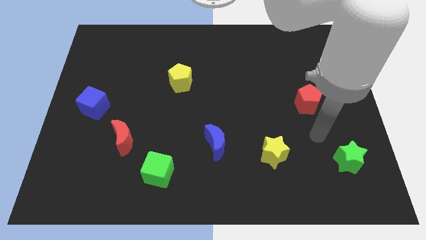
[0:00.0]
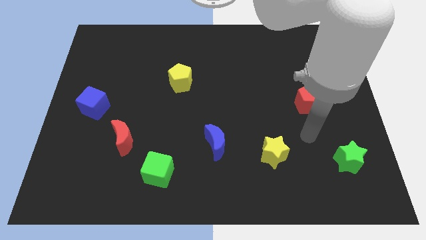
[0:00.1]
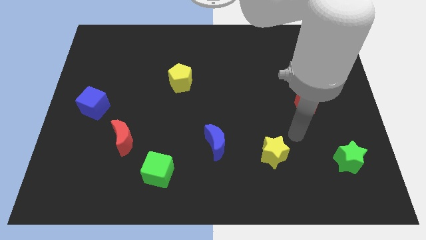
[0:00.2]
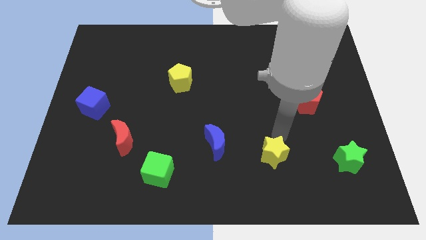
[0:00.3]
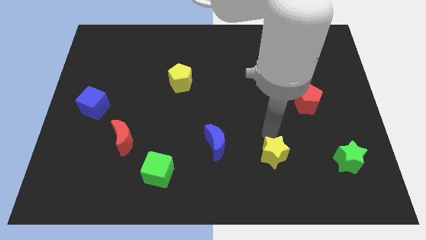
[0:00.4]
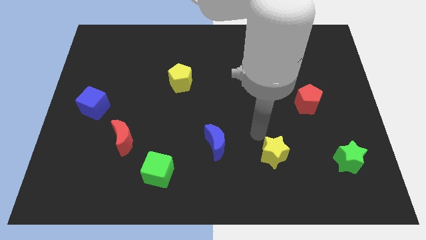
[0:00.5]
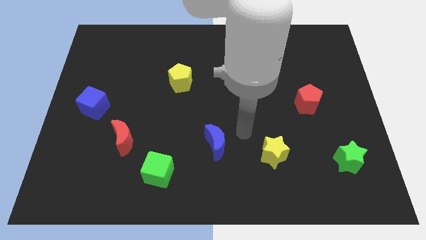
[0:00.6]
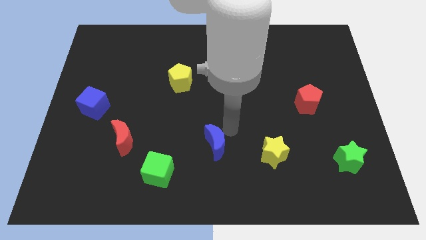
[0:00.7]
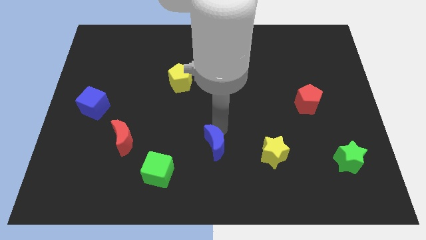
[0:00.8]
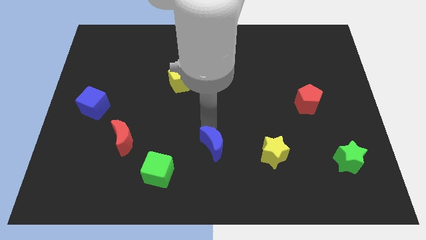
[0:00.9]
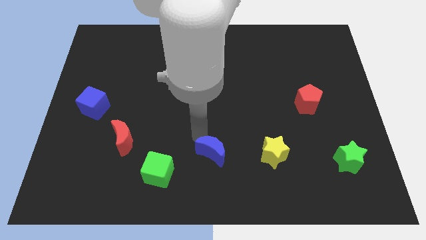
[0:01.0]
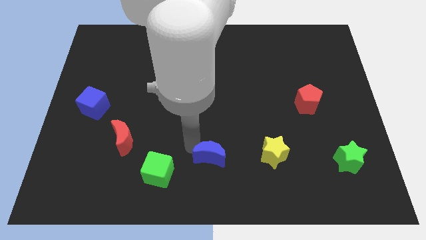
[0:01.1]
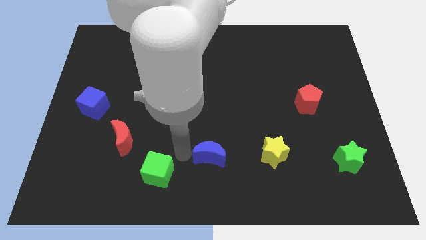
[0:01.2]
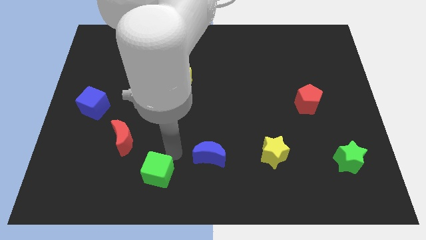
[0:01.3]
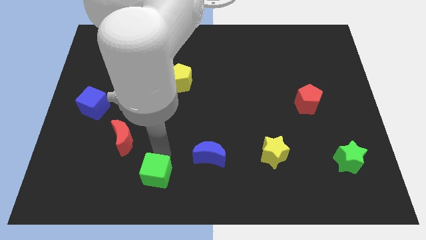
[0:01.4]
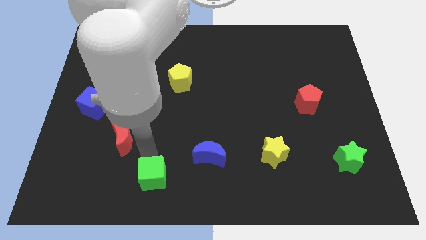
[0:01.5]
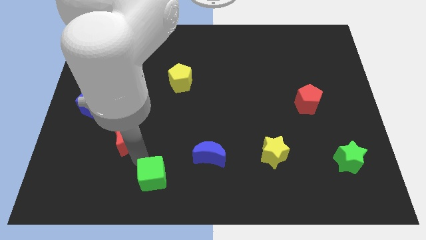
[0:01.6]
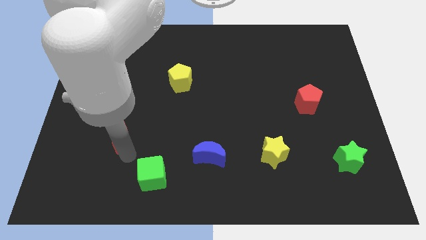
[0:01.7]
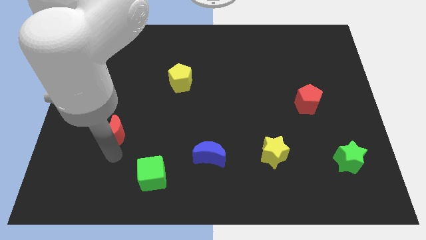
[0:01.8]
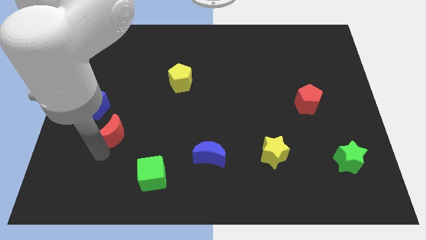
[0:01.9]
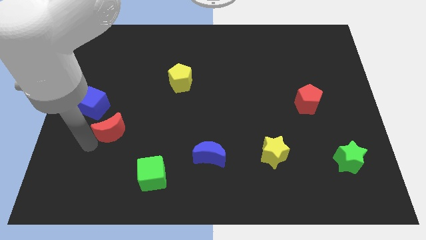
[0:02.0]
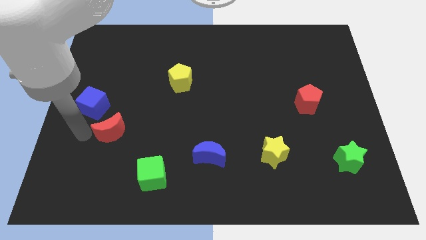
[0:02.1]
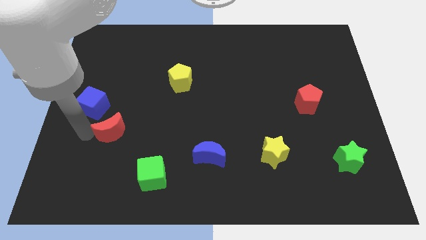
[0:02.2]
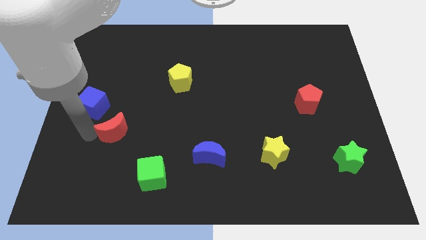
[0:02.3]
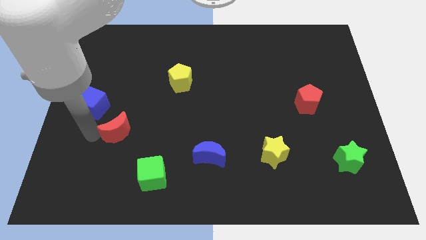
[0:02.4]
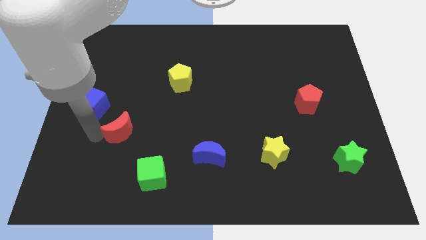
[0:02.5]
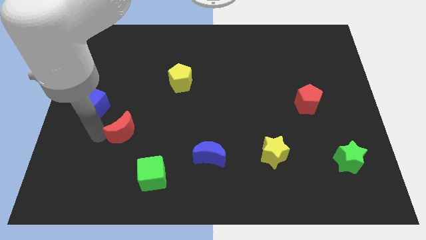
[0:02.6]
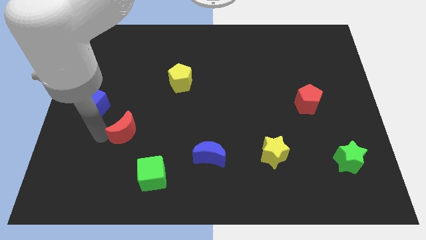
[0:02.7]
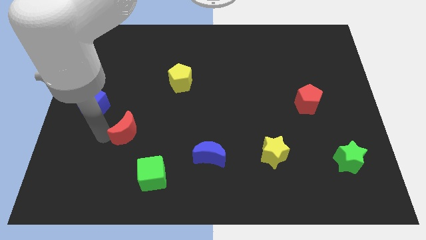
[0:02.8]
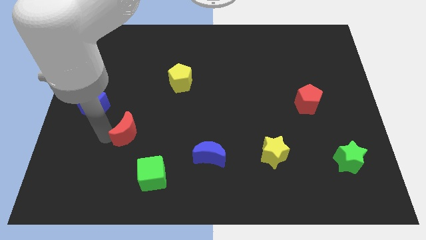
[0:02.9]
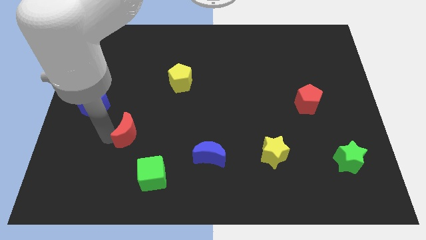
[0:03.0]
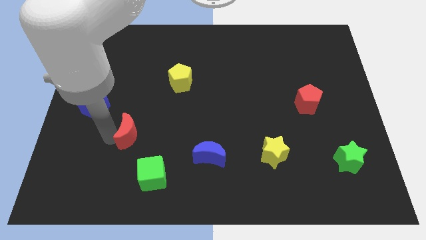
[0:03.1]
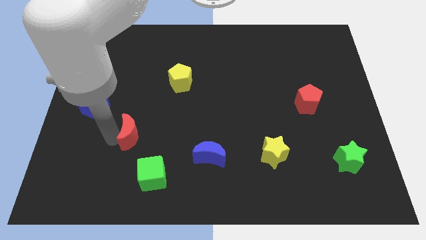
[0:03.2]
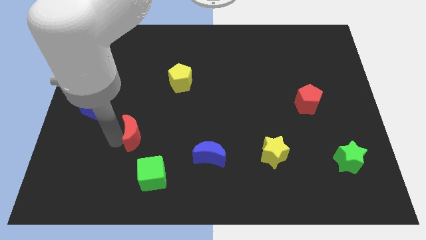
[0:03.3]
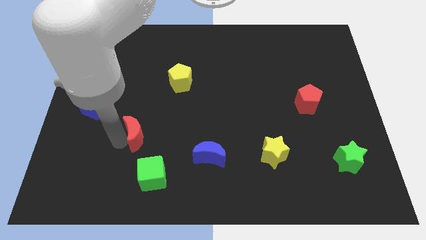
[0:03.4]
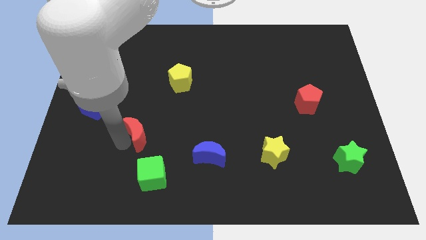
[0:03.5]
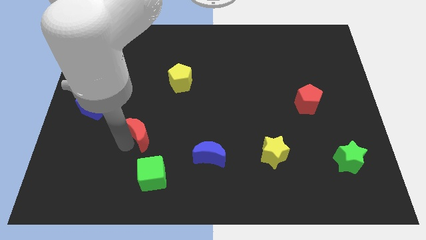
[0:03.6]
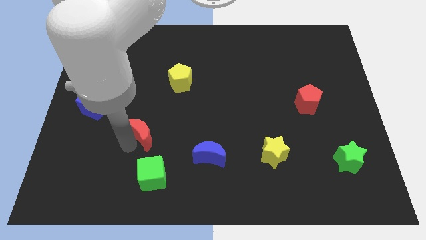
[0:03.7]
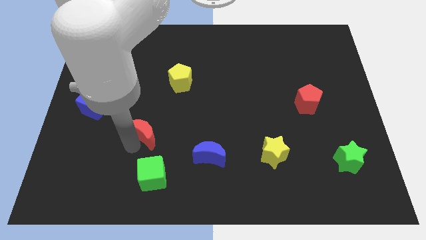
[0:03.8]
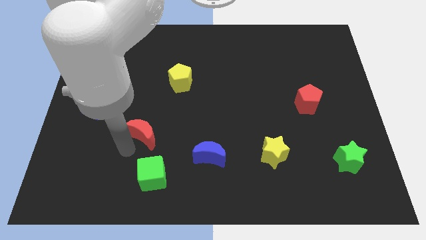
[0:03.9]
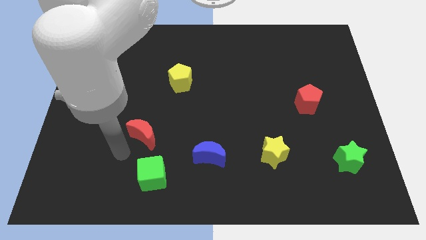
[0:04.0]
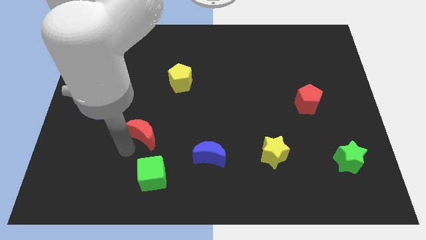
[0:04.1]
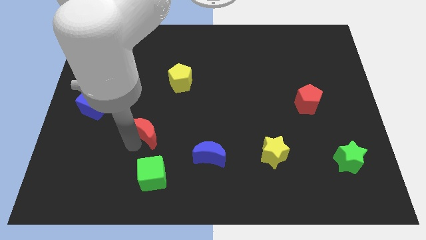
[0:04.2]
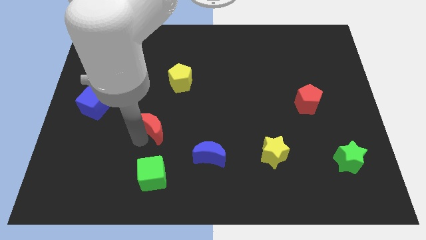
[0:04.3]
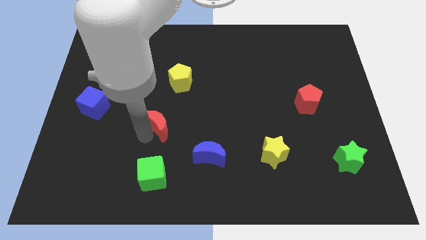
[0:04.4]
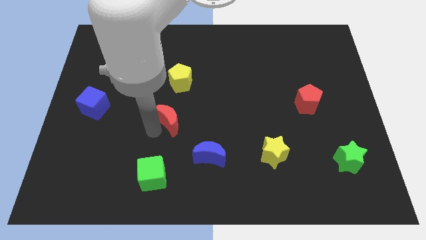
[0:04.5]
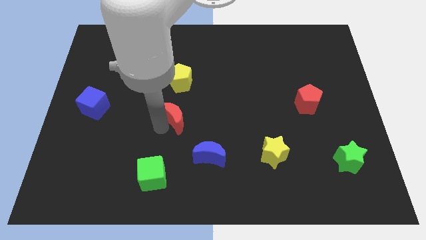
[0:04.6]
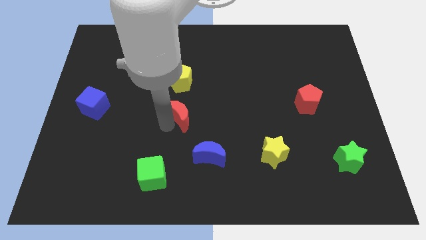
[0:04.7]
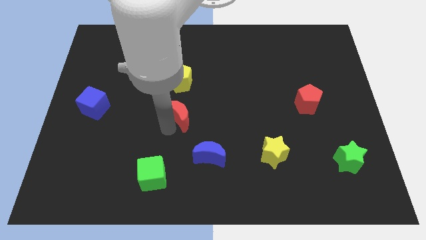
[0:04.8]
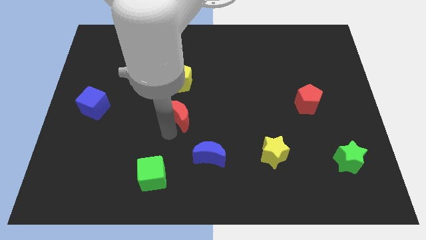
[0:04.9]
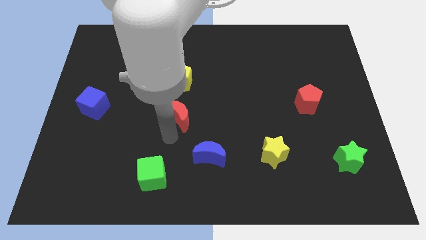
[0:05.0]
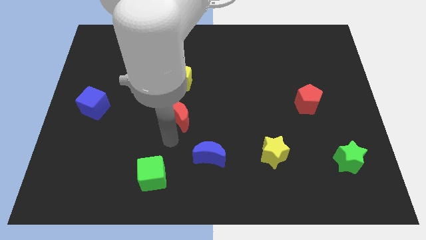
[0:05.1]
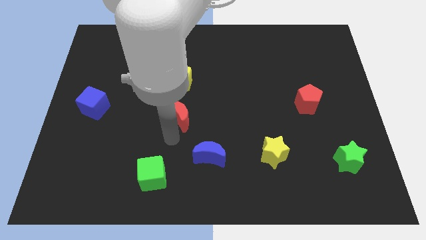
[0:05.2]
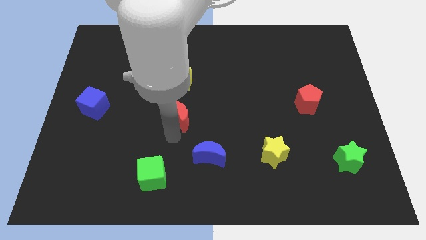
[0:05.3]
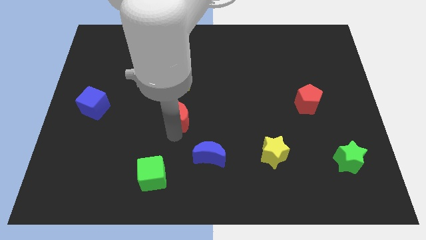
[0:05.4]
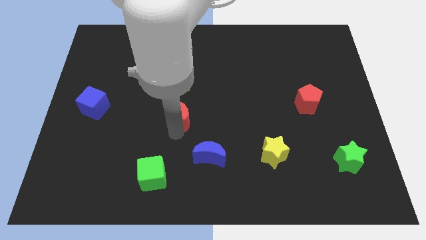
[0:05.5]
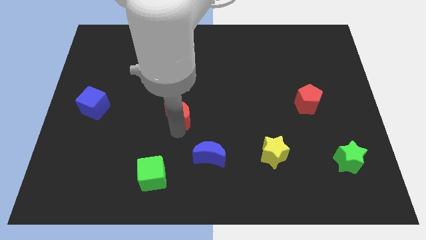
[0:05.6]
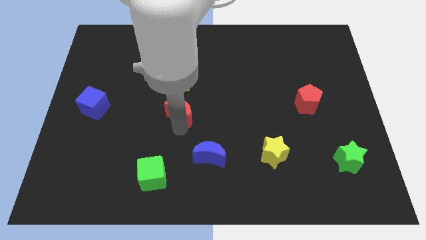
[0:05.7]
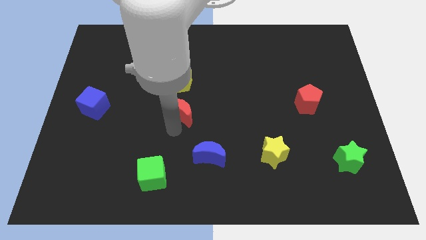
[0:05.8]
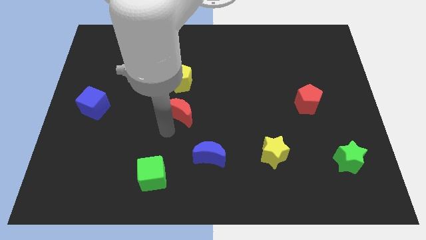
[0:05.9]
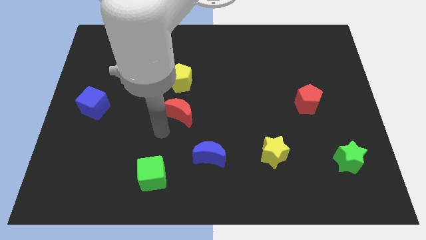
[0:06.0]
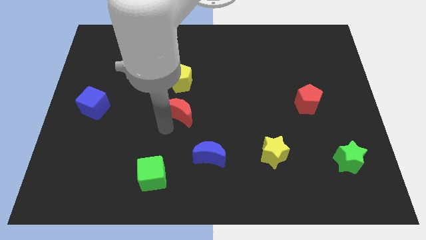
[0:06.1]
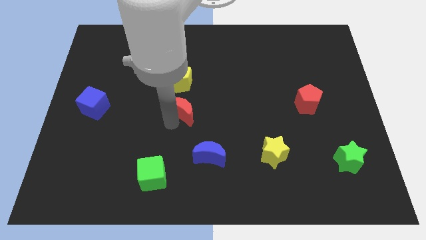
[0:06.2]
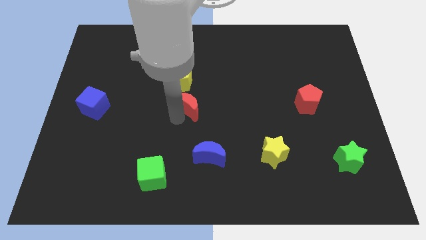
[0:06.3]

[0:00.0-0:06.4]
push the red moon diagonally down and to the right of the yellow pentagon
